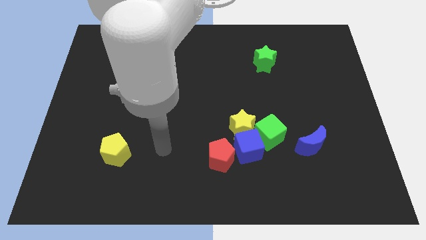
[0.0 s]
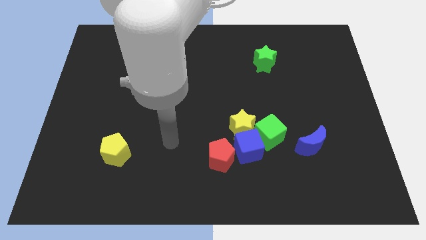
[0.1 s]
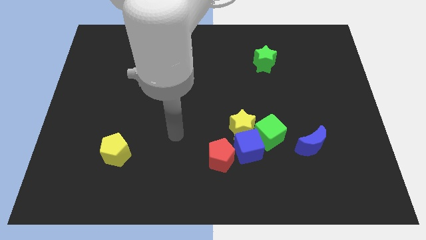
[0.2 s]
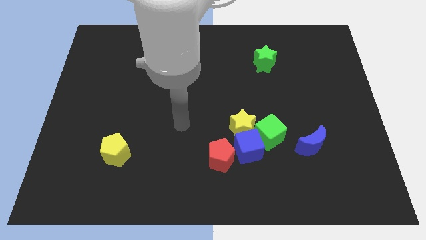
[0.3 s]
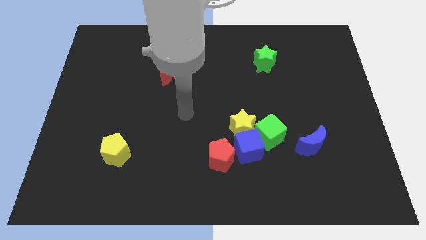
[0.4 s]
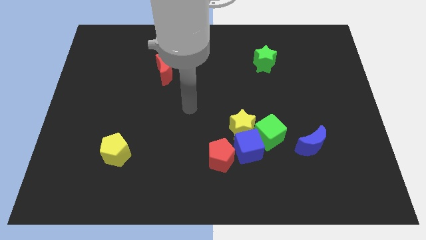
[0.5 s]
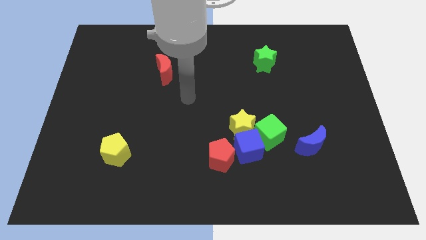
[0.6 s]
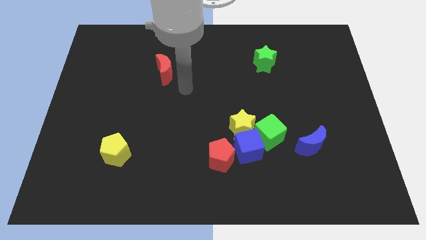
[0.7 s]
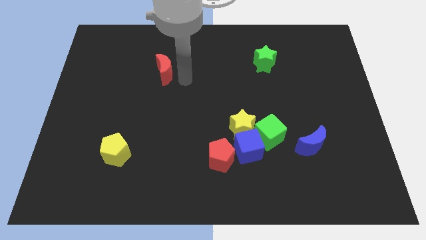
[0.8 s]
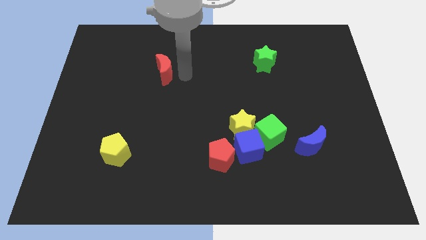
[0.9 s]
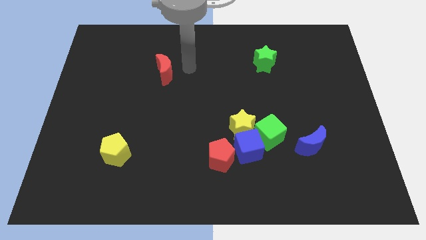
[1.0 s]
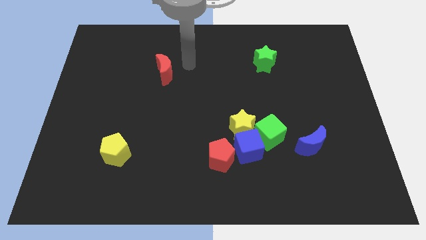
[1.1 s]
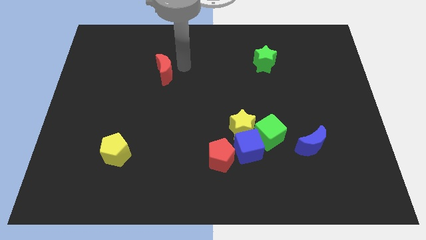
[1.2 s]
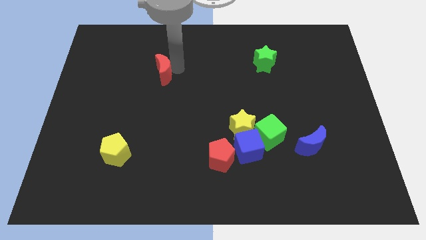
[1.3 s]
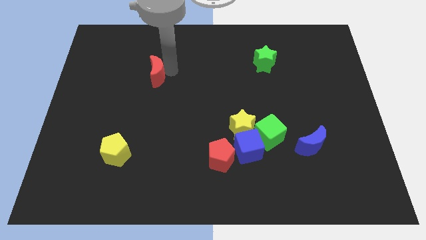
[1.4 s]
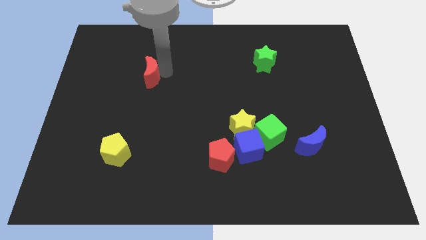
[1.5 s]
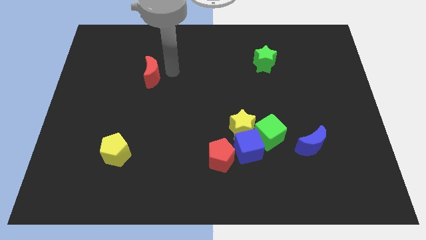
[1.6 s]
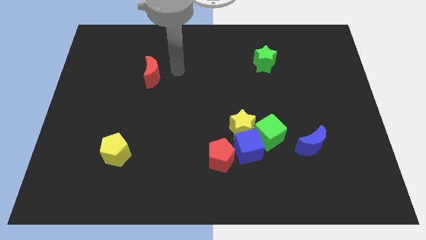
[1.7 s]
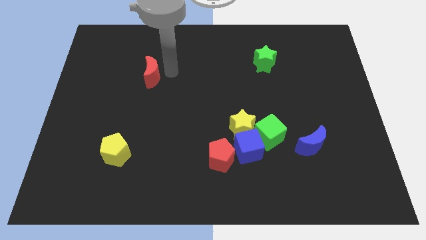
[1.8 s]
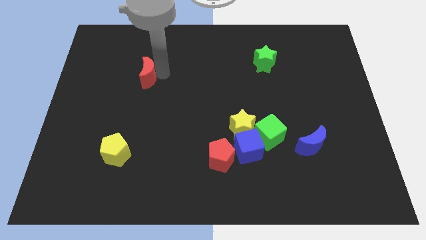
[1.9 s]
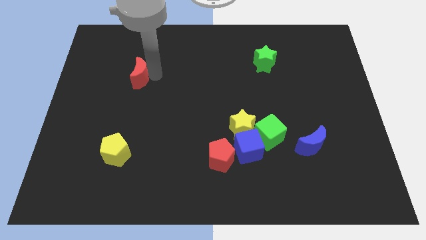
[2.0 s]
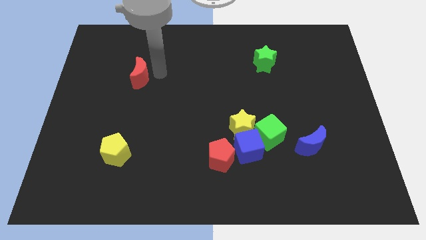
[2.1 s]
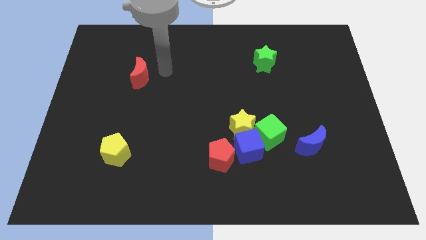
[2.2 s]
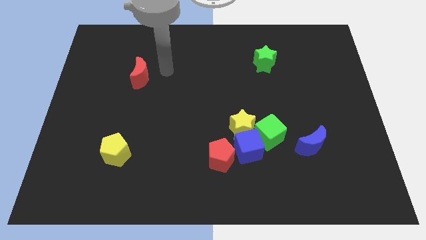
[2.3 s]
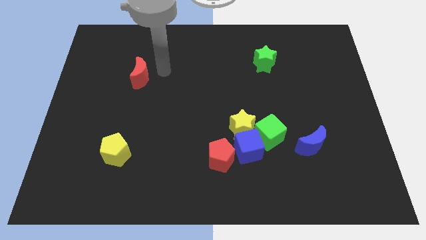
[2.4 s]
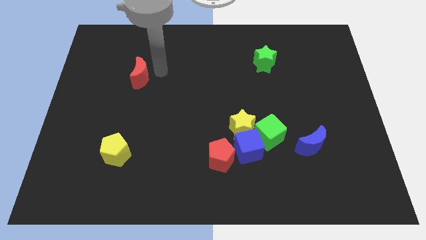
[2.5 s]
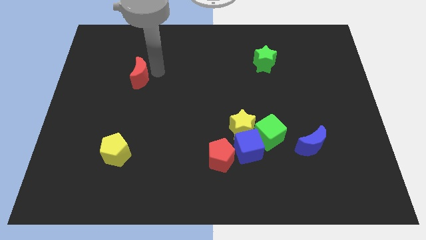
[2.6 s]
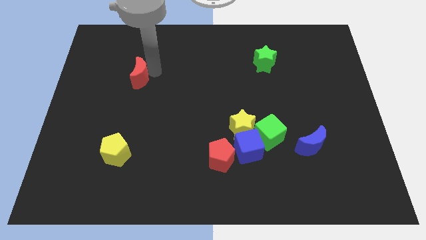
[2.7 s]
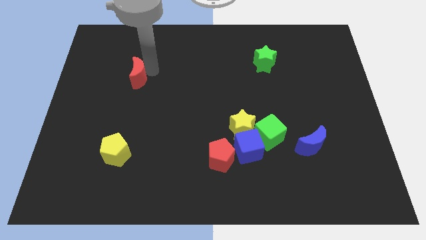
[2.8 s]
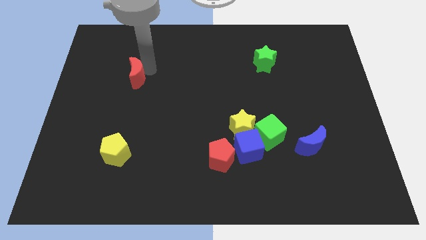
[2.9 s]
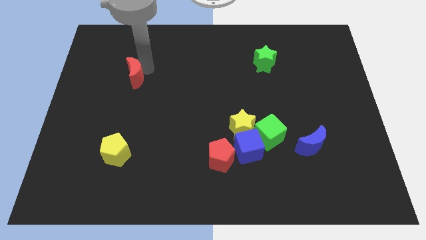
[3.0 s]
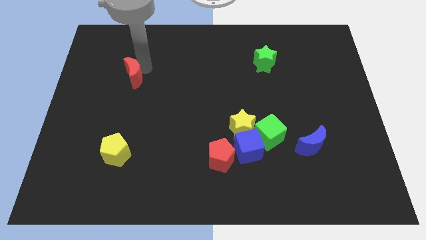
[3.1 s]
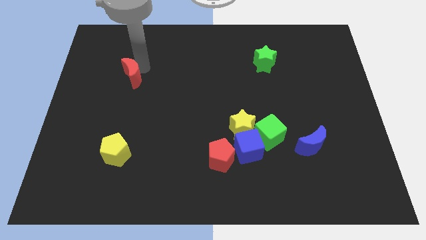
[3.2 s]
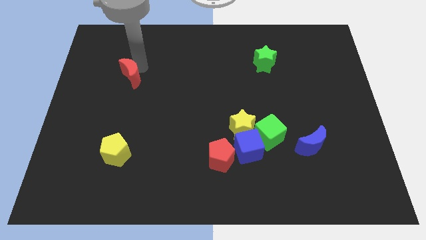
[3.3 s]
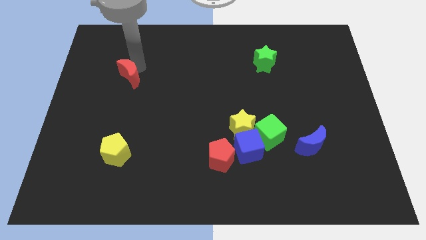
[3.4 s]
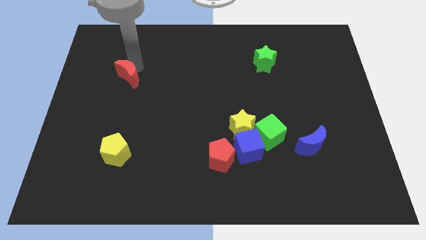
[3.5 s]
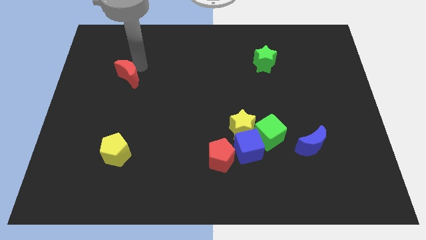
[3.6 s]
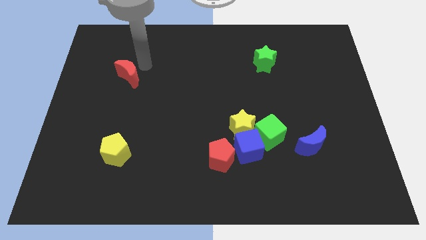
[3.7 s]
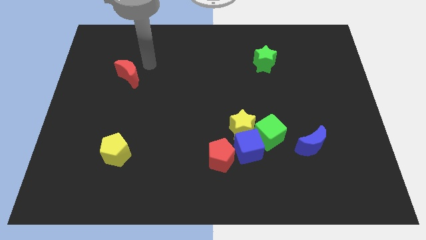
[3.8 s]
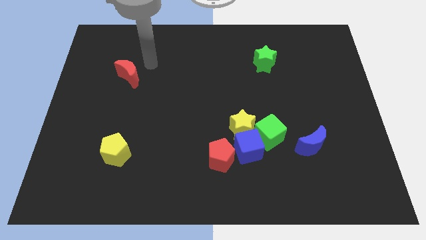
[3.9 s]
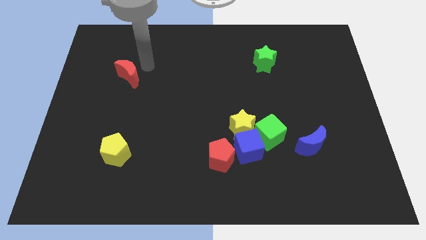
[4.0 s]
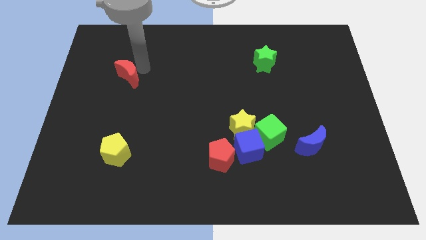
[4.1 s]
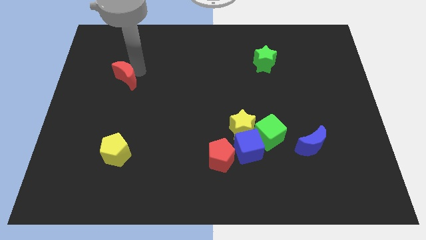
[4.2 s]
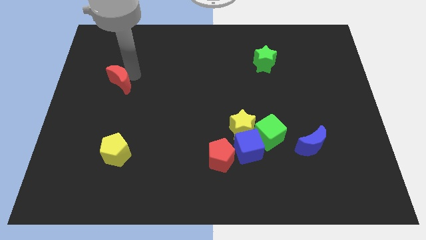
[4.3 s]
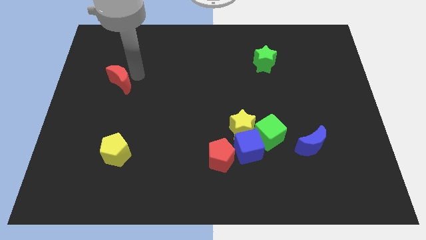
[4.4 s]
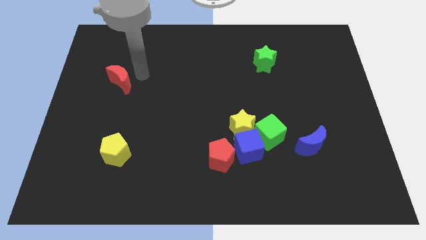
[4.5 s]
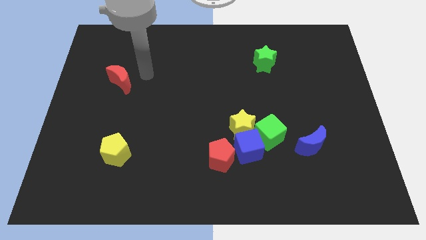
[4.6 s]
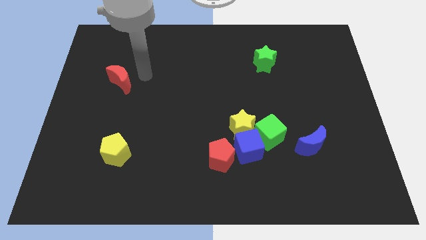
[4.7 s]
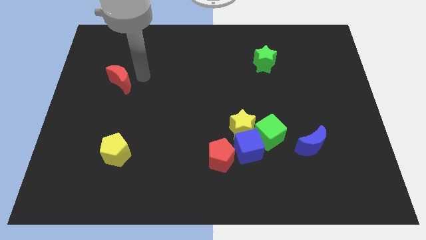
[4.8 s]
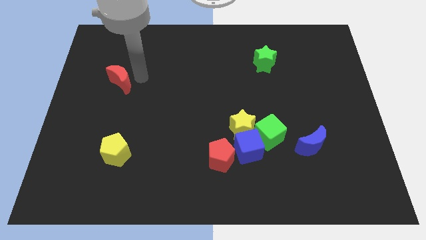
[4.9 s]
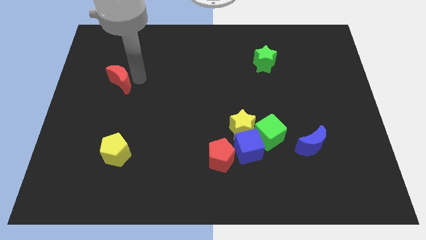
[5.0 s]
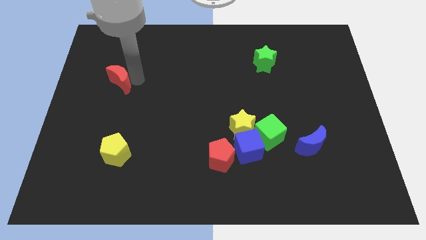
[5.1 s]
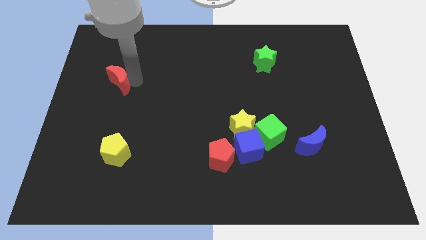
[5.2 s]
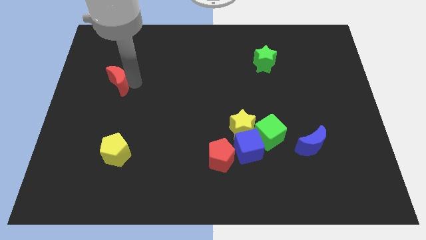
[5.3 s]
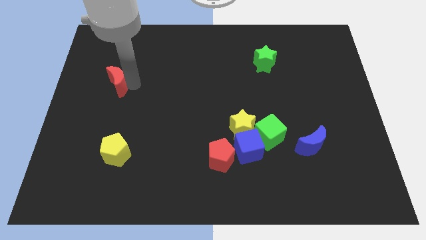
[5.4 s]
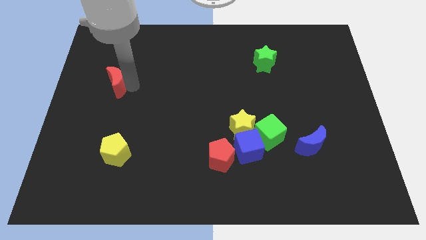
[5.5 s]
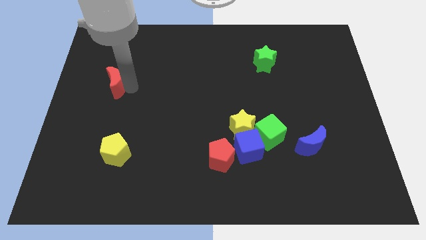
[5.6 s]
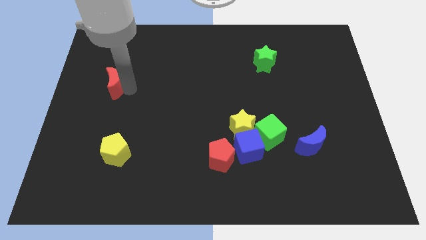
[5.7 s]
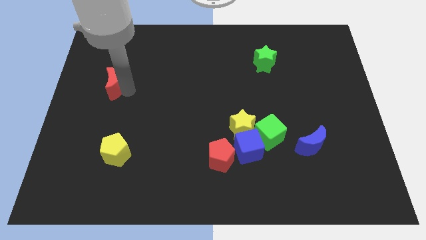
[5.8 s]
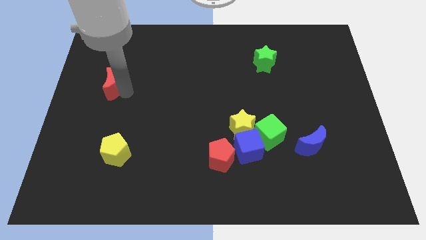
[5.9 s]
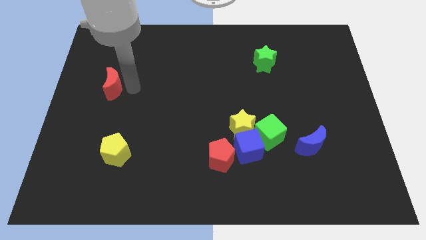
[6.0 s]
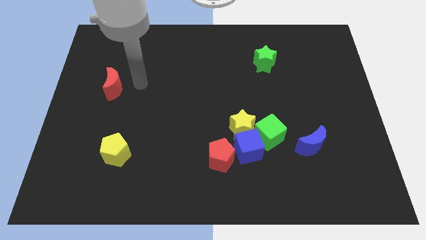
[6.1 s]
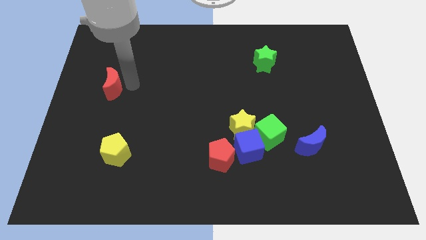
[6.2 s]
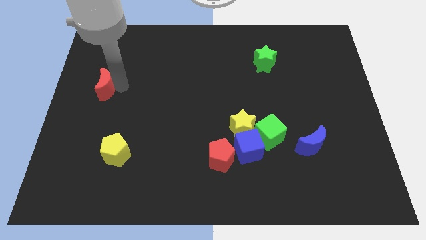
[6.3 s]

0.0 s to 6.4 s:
slide the red moon to the center left

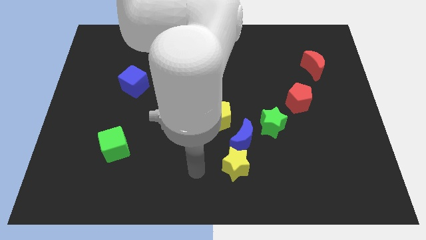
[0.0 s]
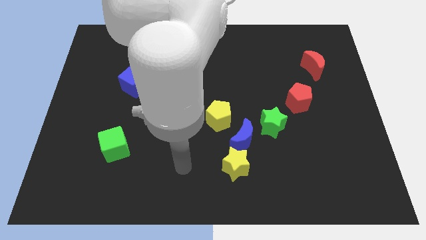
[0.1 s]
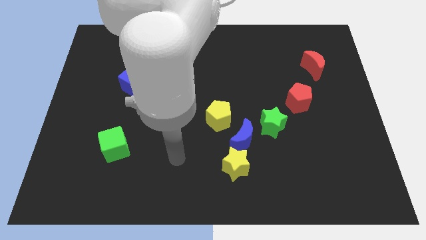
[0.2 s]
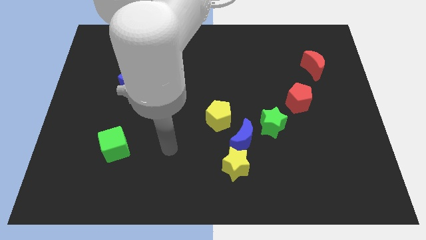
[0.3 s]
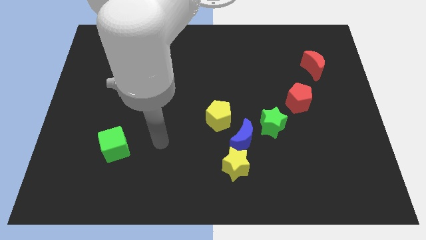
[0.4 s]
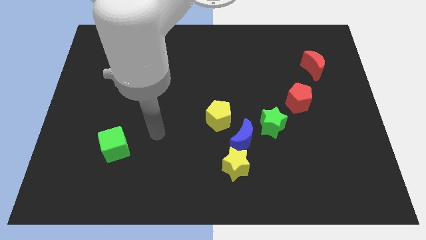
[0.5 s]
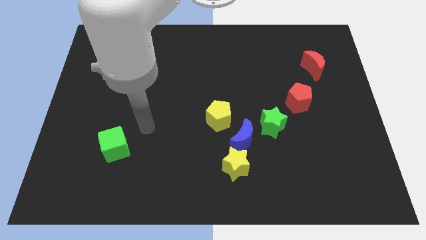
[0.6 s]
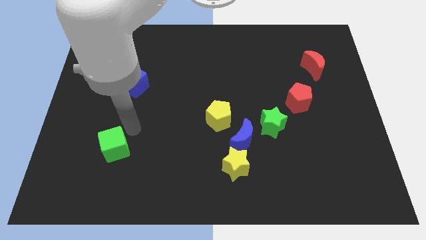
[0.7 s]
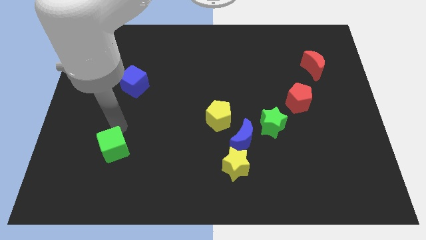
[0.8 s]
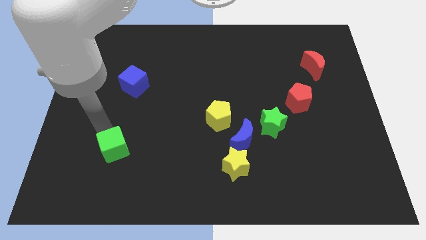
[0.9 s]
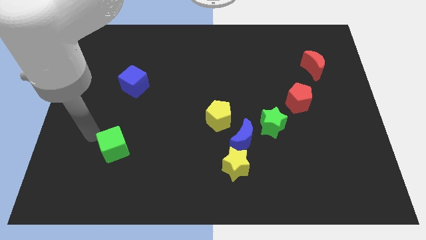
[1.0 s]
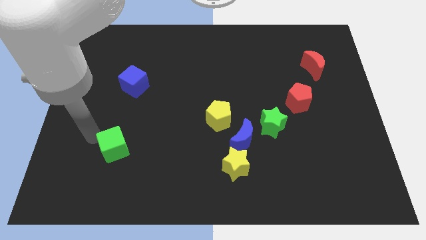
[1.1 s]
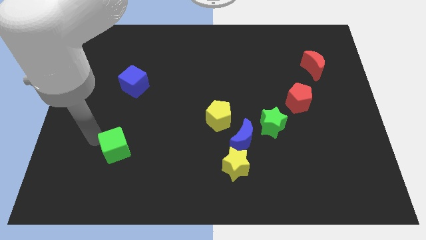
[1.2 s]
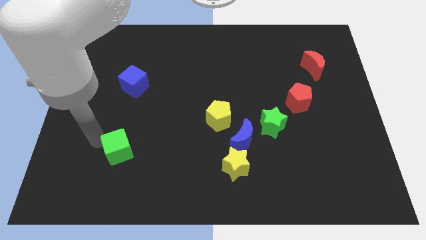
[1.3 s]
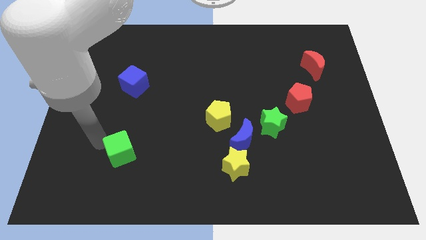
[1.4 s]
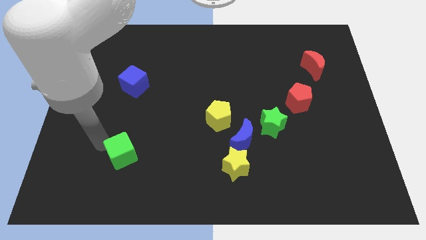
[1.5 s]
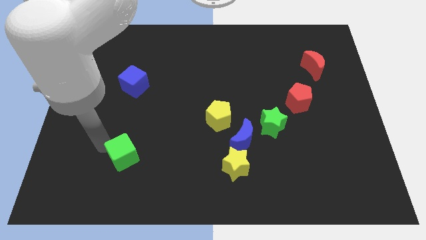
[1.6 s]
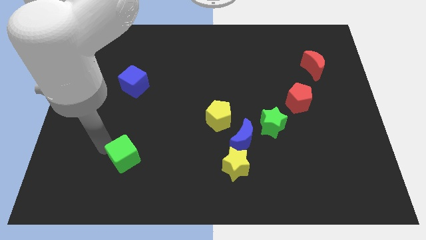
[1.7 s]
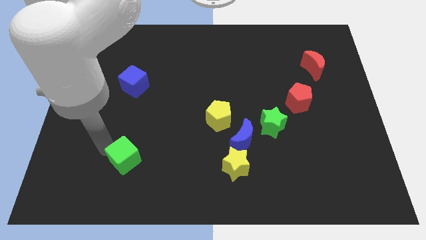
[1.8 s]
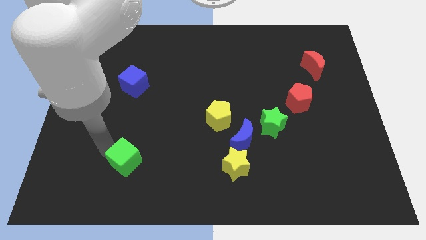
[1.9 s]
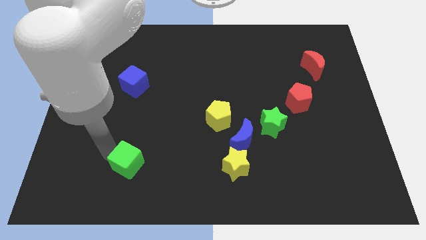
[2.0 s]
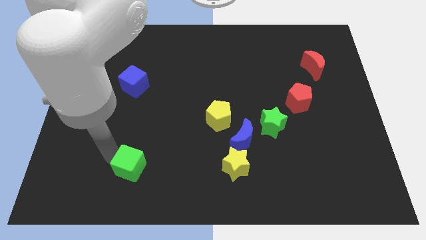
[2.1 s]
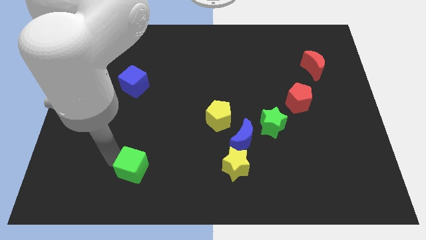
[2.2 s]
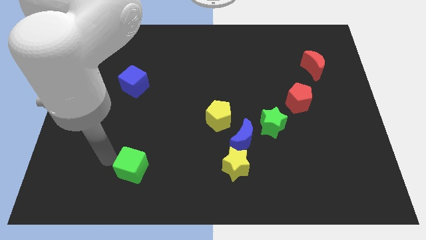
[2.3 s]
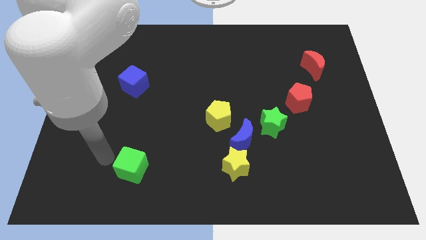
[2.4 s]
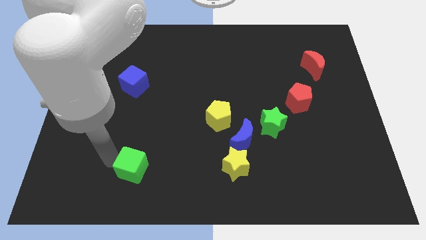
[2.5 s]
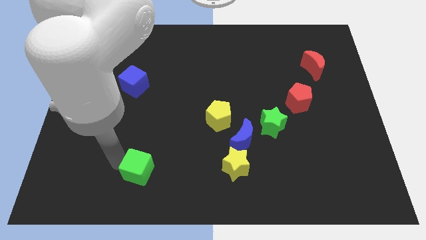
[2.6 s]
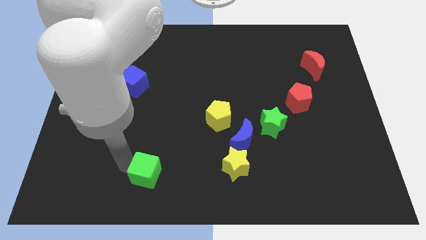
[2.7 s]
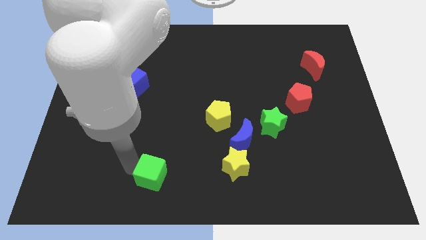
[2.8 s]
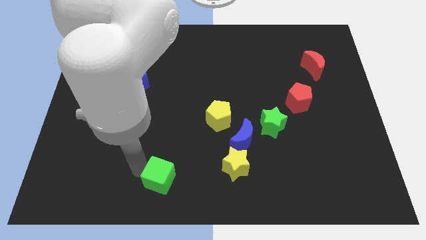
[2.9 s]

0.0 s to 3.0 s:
slide the green cube to the bottom
